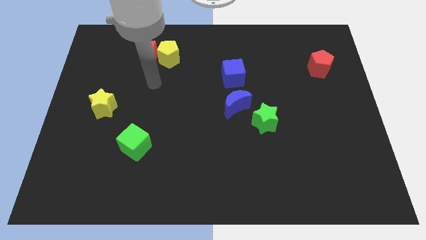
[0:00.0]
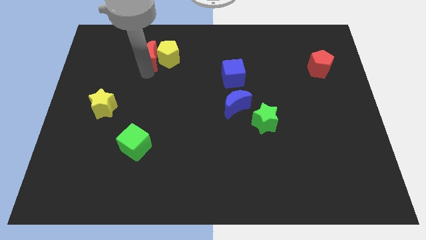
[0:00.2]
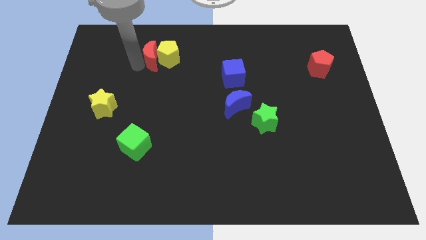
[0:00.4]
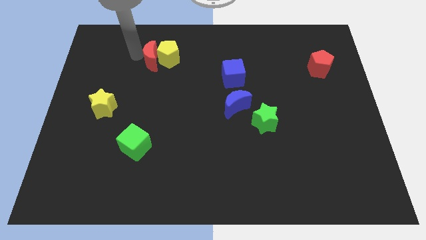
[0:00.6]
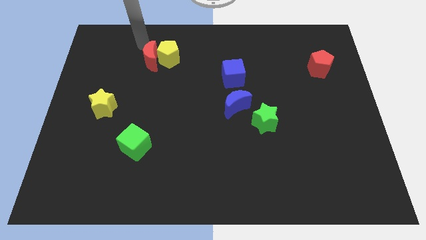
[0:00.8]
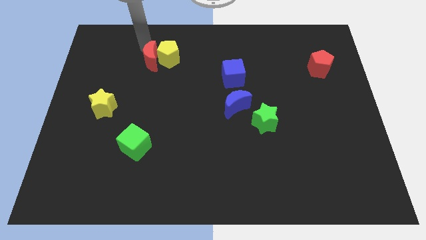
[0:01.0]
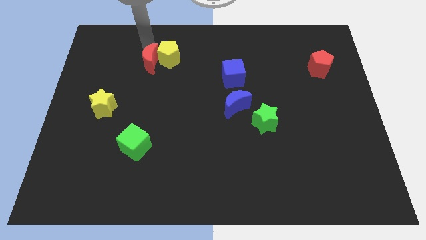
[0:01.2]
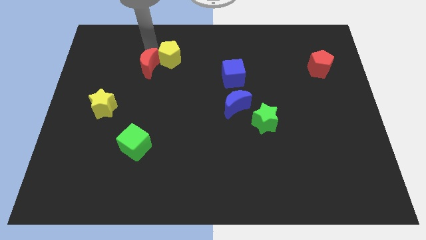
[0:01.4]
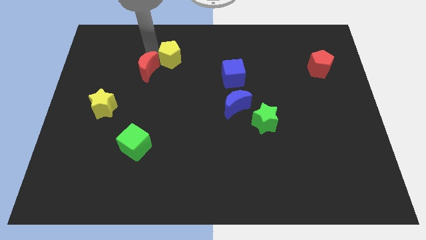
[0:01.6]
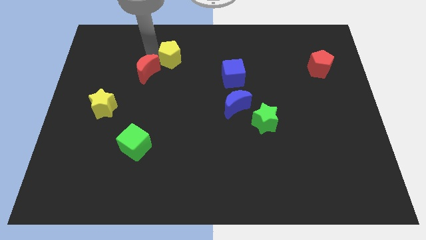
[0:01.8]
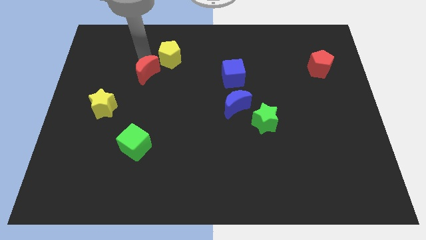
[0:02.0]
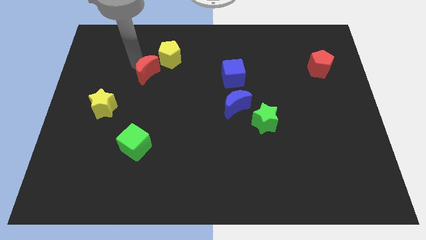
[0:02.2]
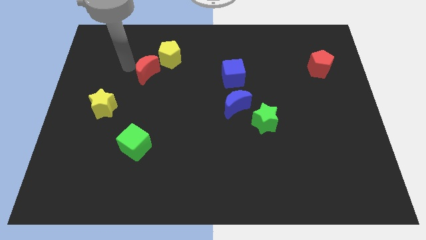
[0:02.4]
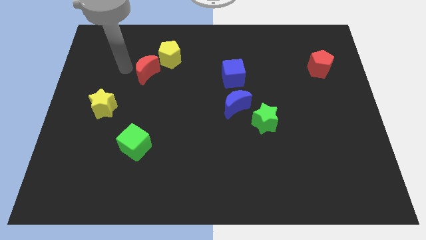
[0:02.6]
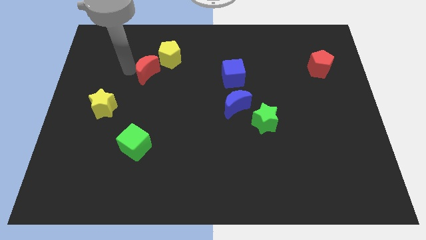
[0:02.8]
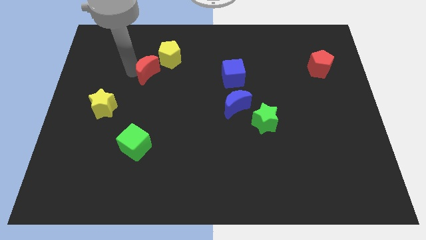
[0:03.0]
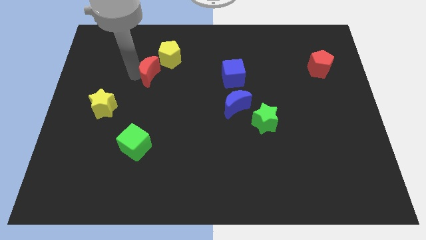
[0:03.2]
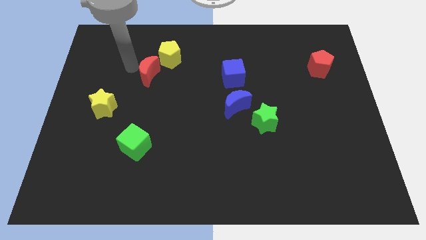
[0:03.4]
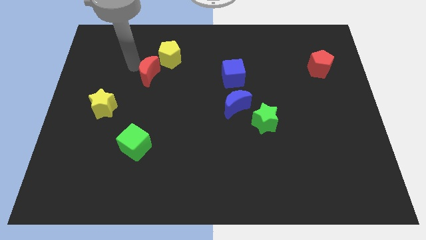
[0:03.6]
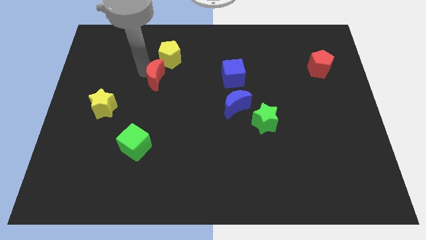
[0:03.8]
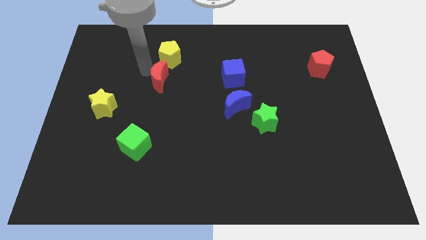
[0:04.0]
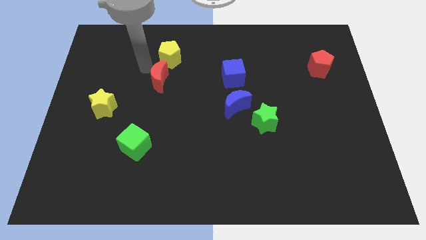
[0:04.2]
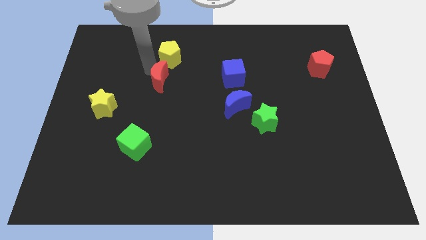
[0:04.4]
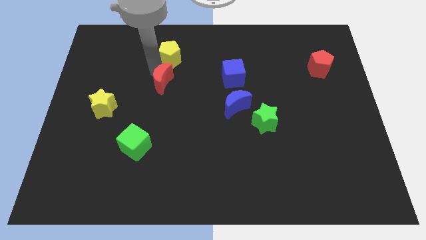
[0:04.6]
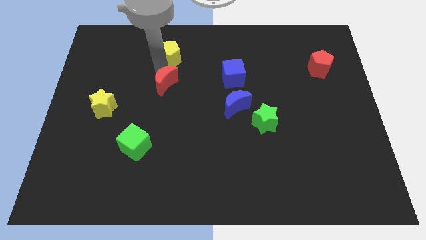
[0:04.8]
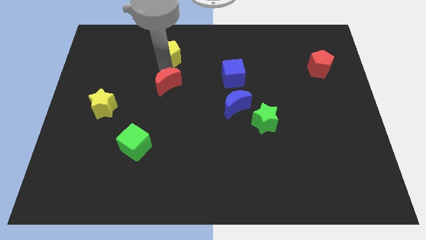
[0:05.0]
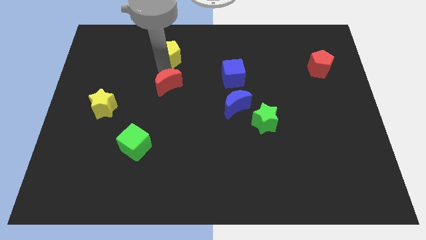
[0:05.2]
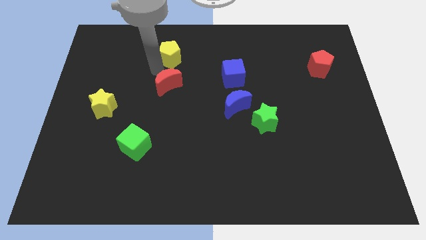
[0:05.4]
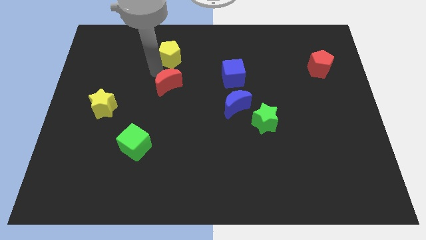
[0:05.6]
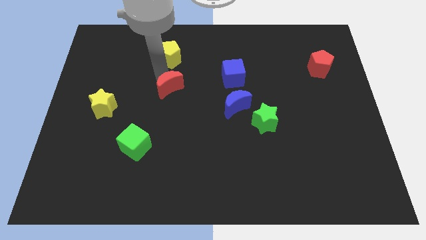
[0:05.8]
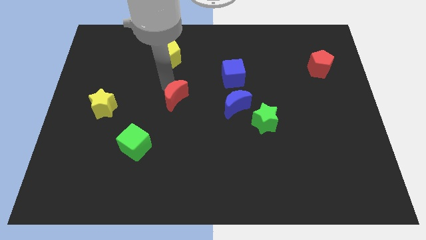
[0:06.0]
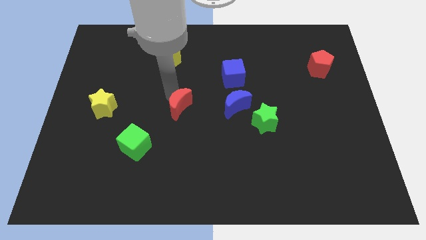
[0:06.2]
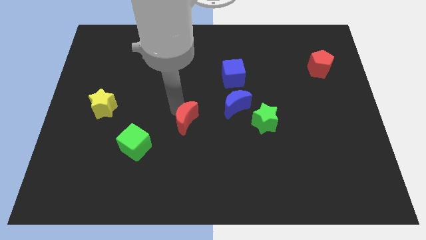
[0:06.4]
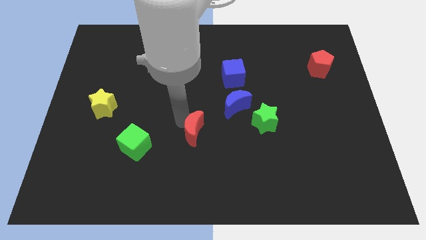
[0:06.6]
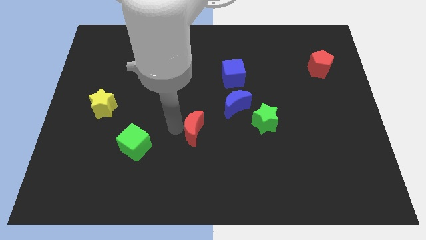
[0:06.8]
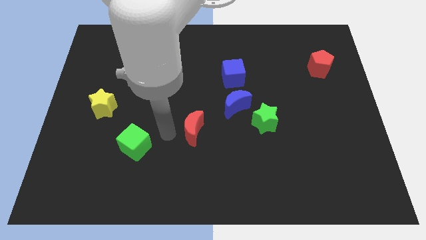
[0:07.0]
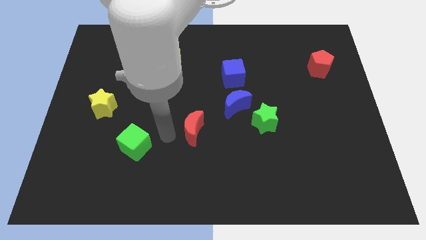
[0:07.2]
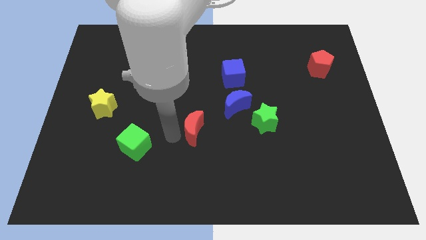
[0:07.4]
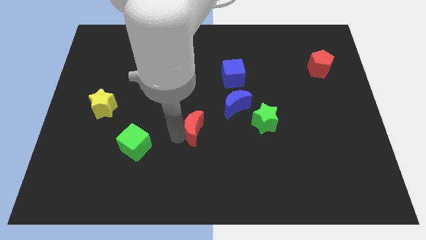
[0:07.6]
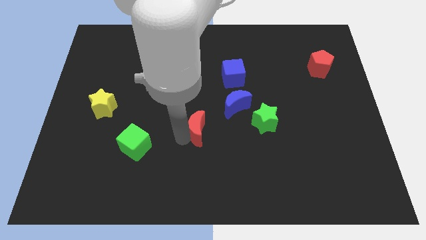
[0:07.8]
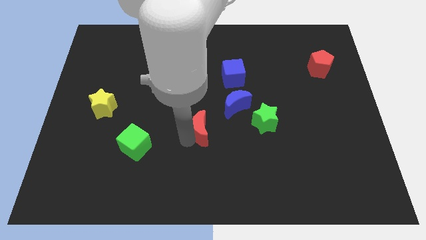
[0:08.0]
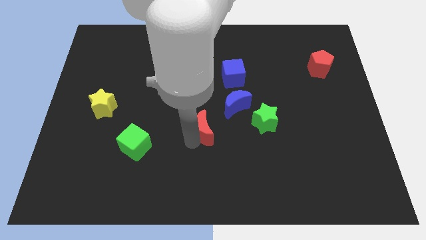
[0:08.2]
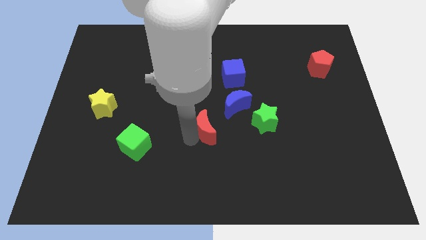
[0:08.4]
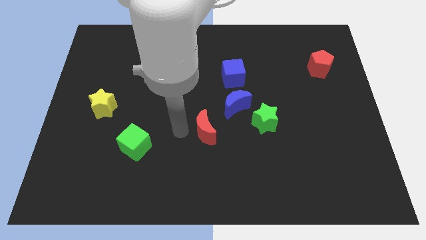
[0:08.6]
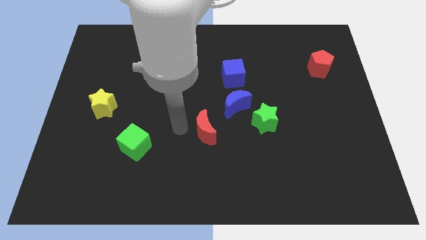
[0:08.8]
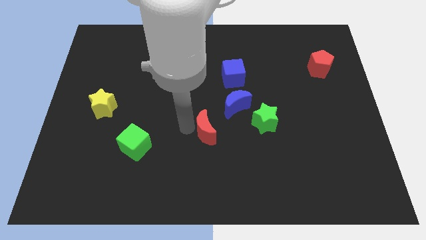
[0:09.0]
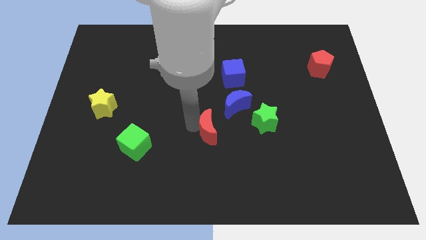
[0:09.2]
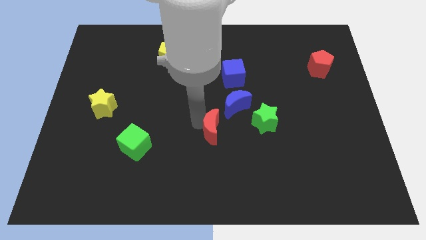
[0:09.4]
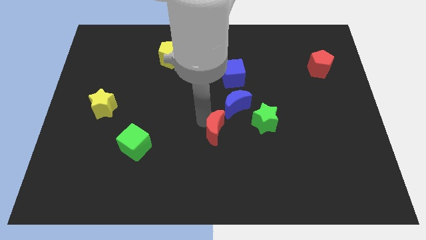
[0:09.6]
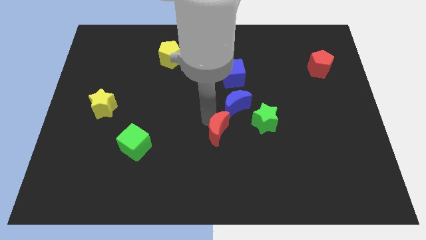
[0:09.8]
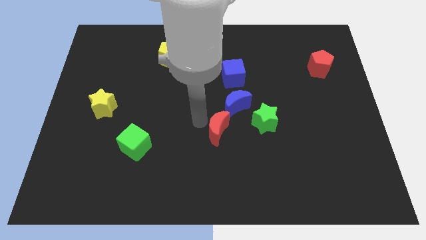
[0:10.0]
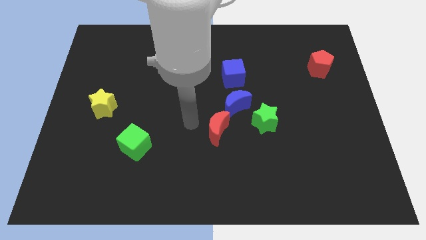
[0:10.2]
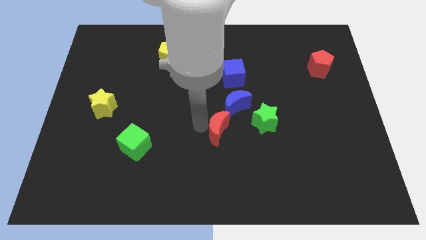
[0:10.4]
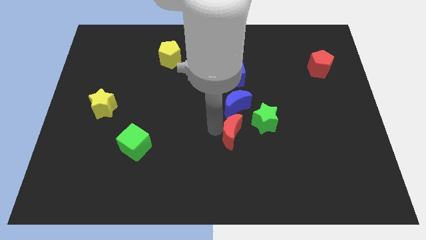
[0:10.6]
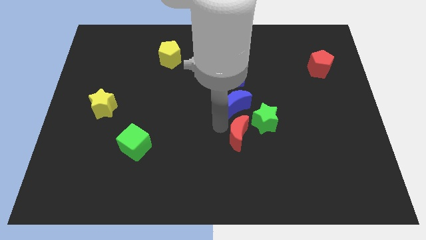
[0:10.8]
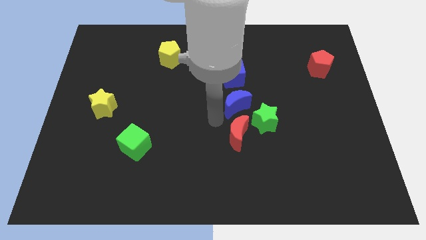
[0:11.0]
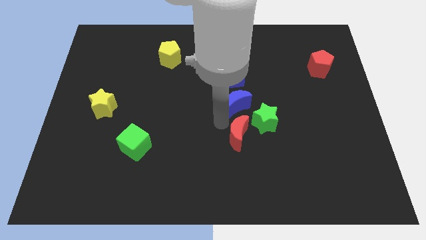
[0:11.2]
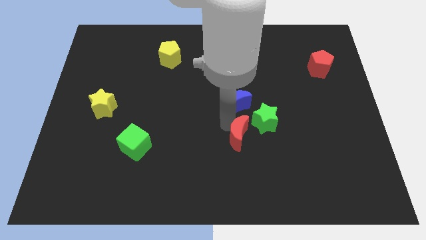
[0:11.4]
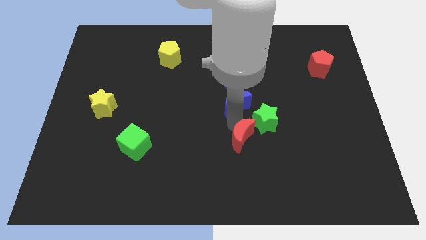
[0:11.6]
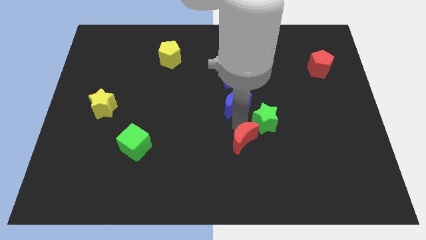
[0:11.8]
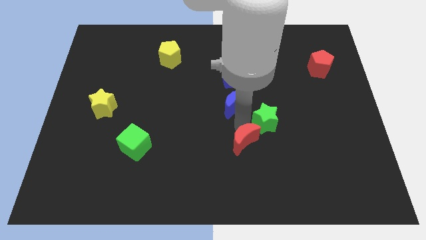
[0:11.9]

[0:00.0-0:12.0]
push the red moon to the bottom side of the green star

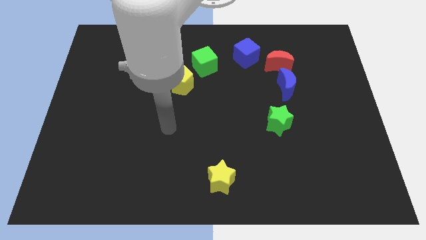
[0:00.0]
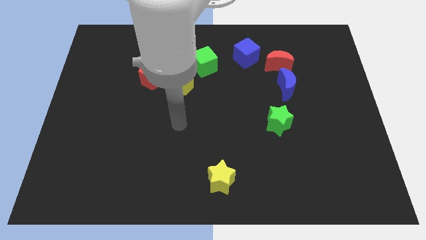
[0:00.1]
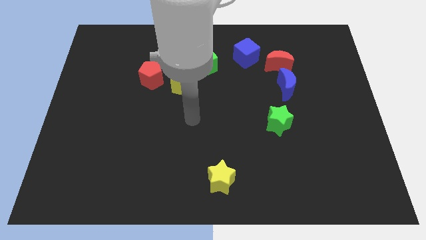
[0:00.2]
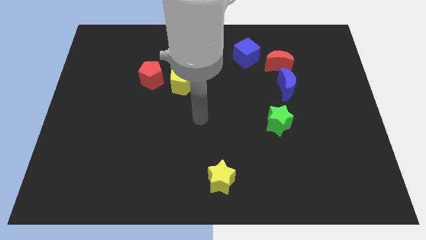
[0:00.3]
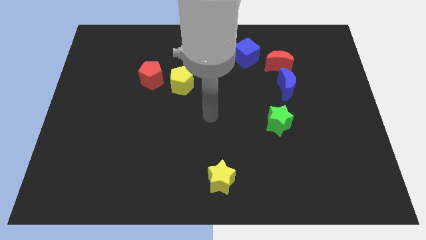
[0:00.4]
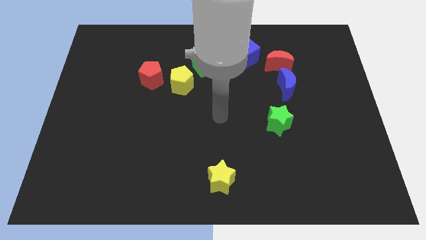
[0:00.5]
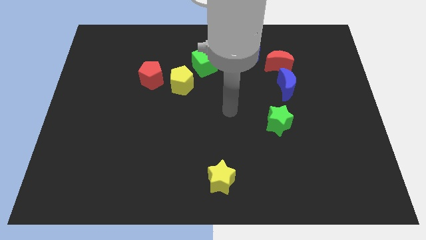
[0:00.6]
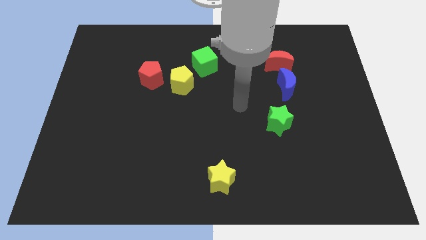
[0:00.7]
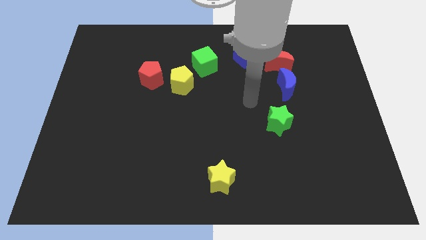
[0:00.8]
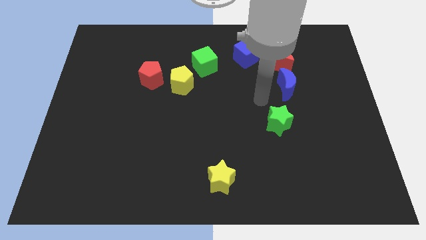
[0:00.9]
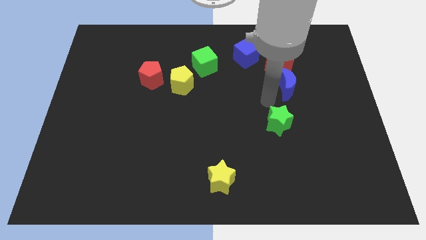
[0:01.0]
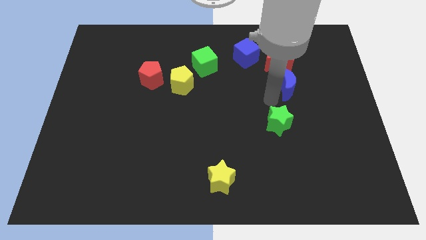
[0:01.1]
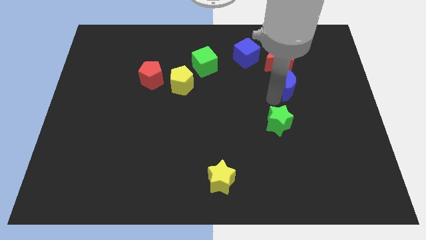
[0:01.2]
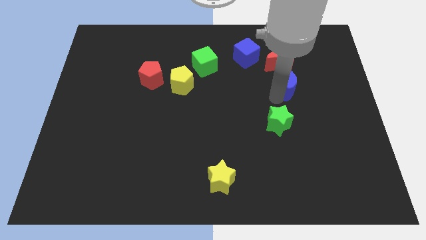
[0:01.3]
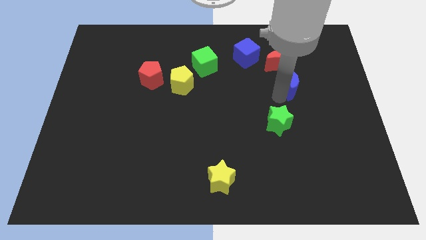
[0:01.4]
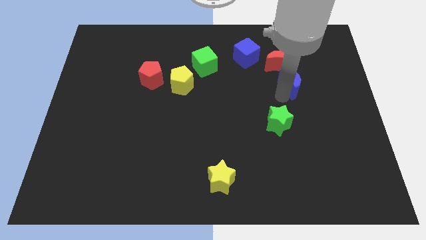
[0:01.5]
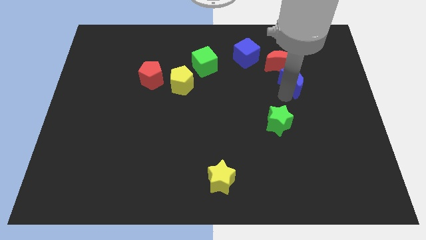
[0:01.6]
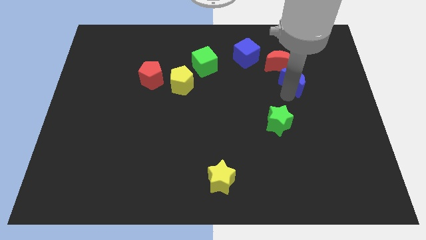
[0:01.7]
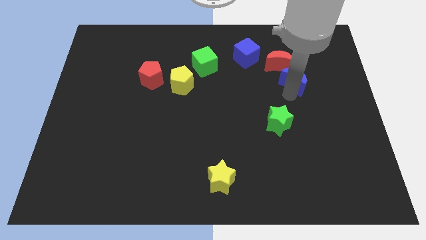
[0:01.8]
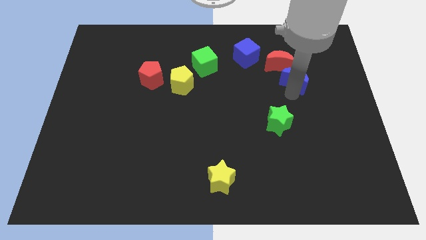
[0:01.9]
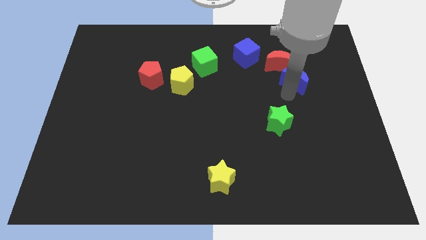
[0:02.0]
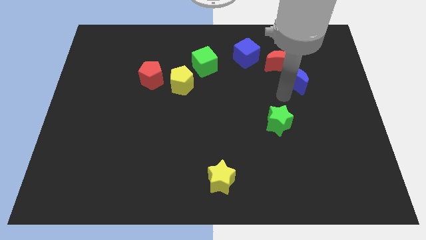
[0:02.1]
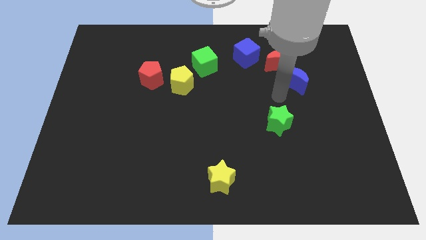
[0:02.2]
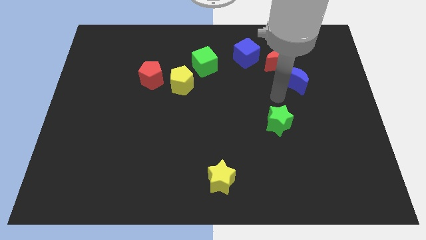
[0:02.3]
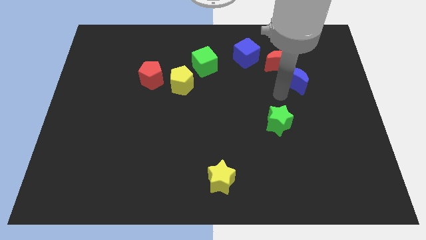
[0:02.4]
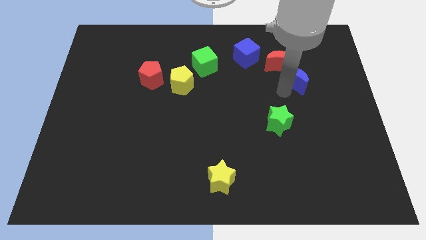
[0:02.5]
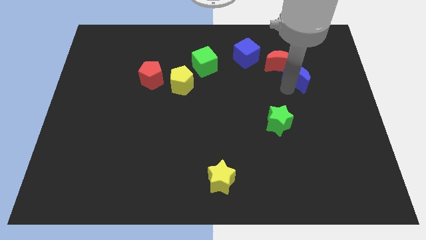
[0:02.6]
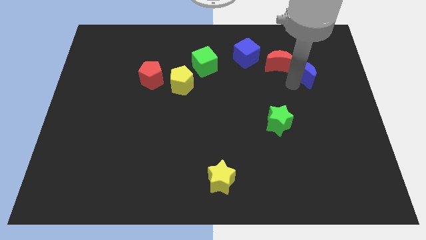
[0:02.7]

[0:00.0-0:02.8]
put the blue moon just right of the red moon
